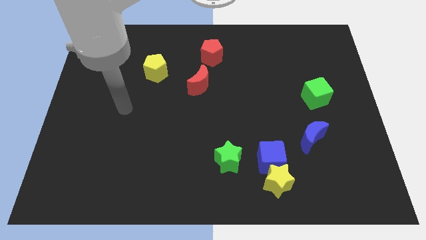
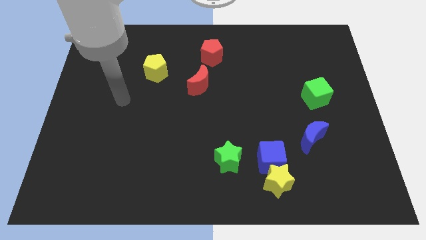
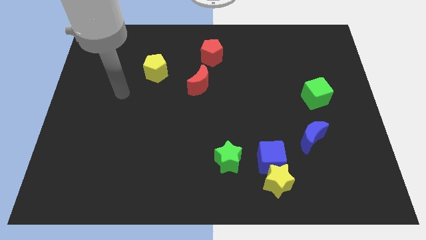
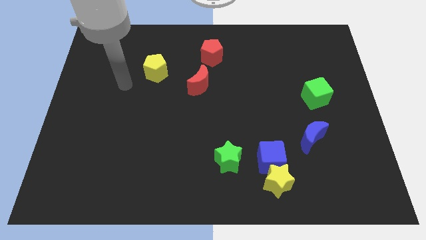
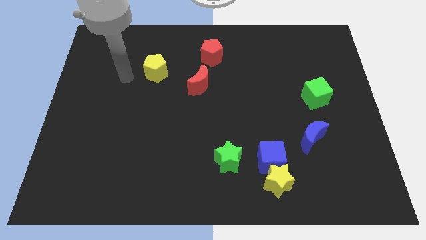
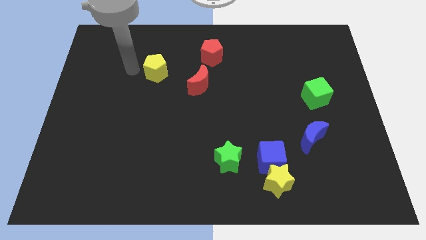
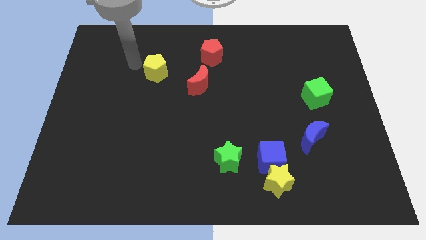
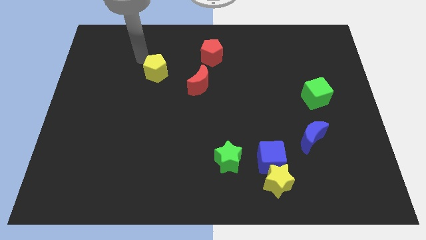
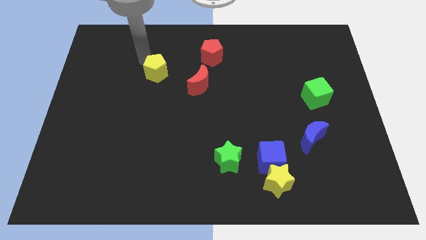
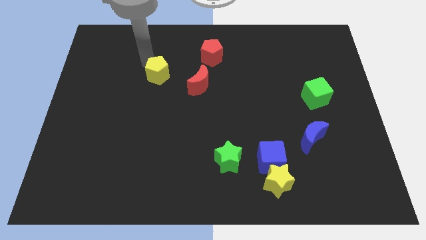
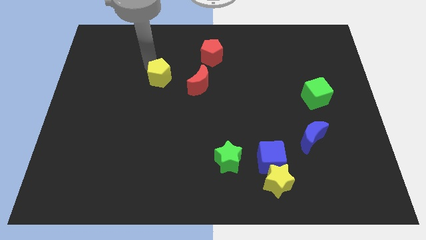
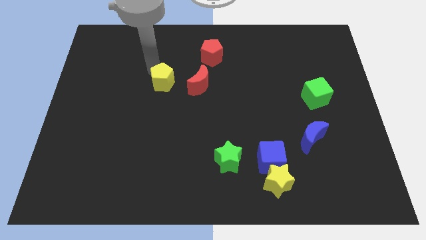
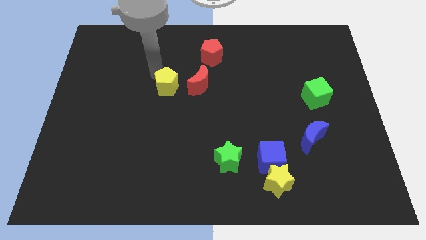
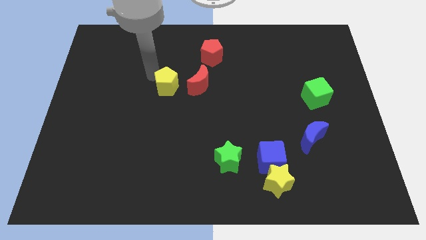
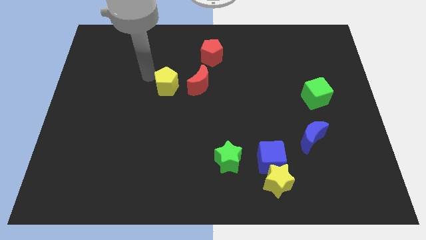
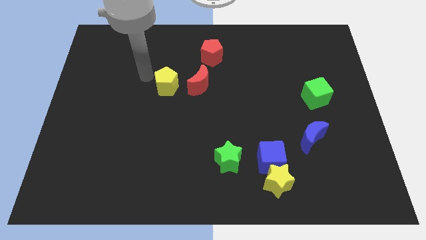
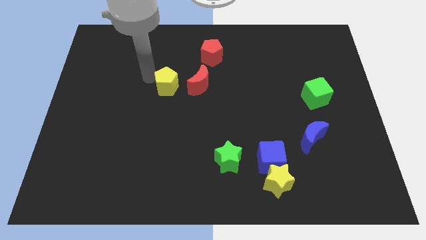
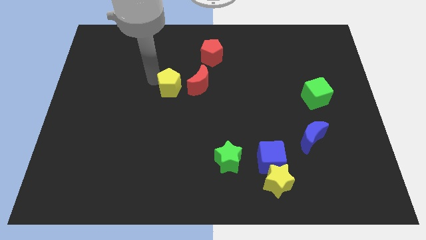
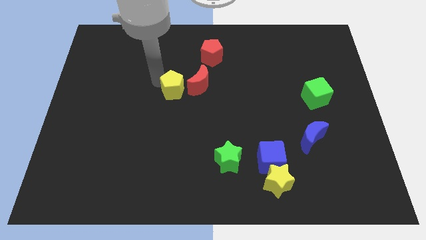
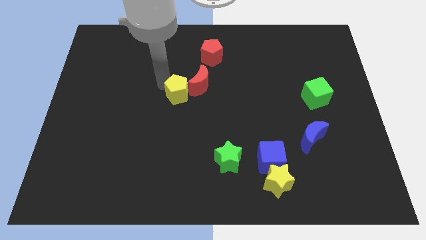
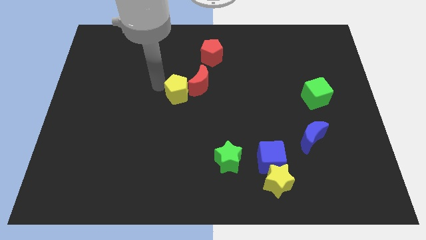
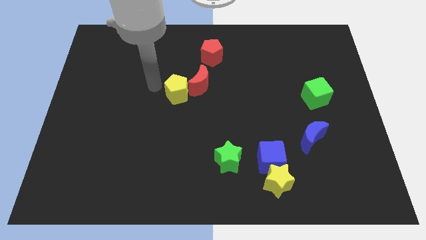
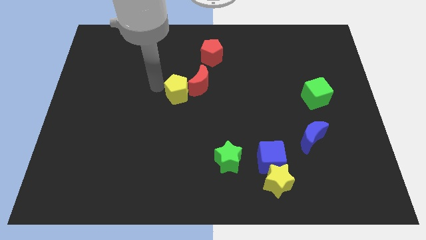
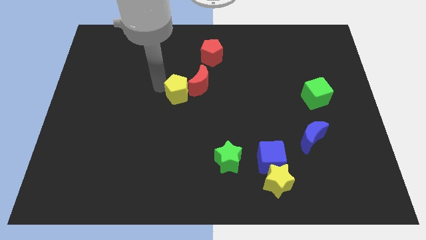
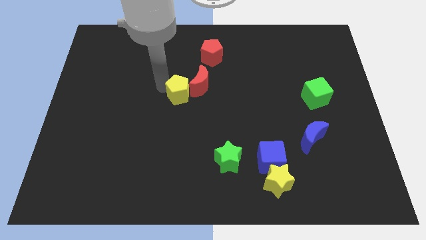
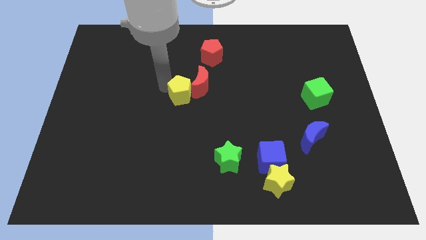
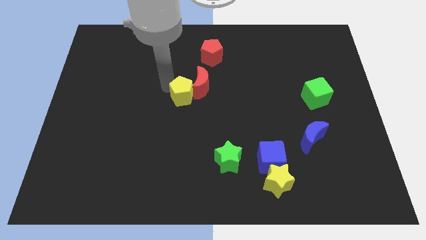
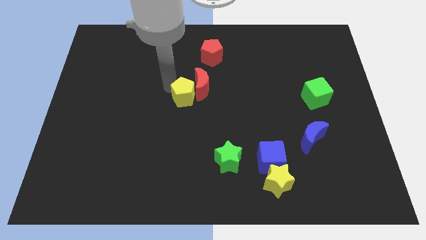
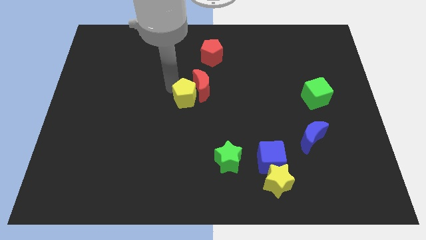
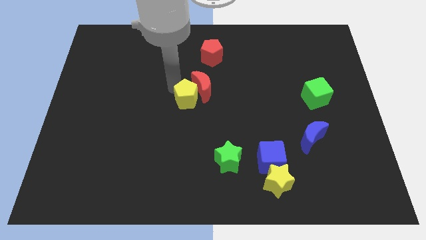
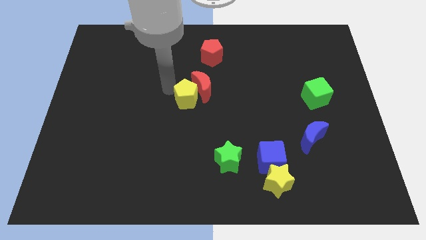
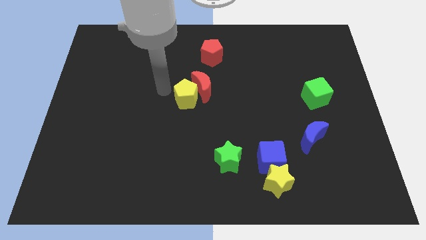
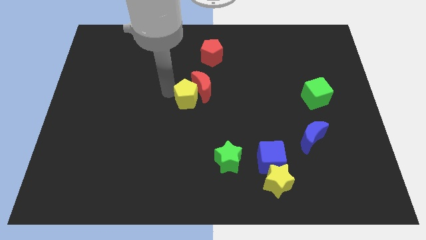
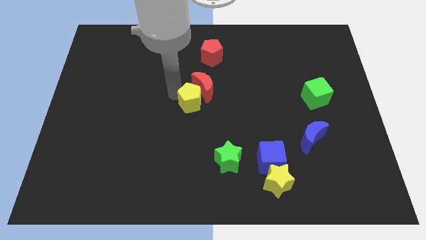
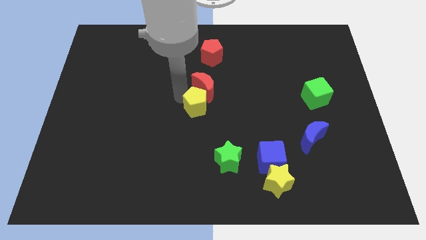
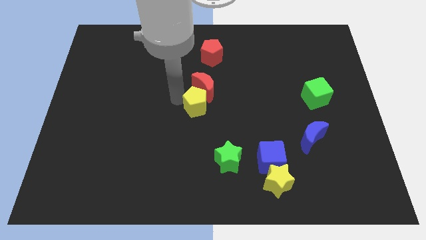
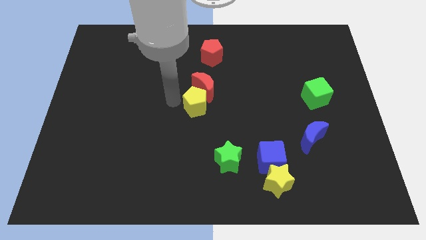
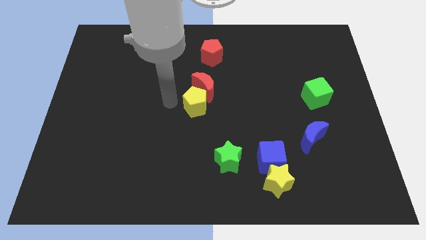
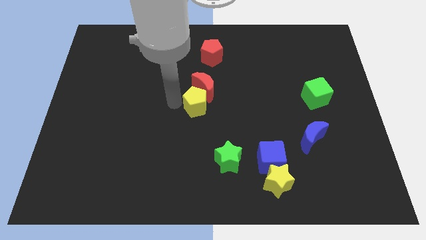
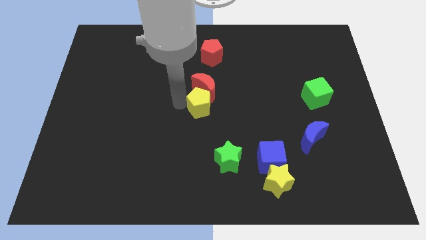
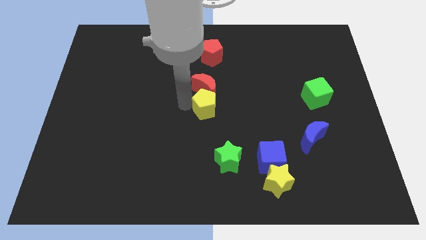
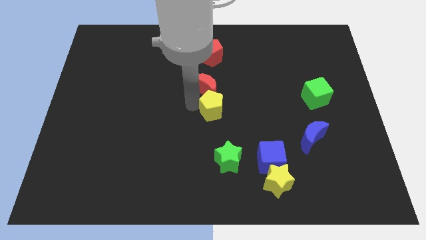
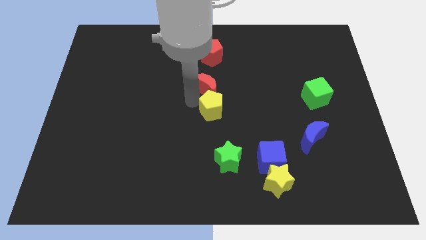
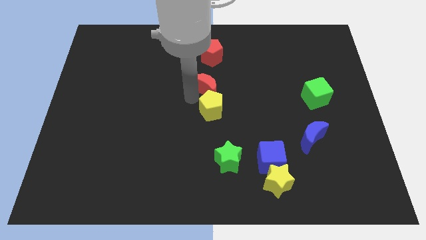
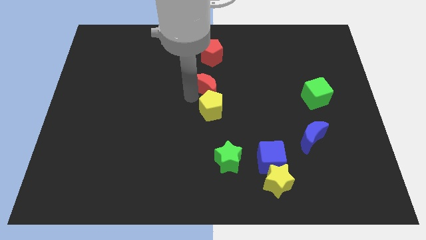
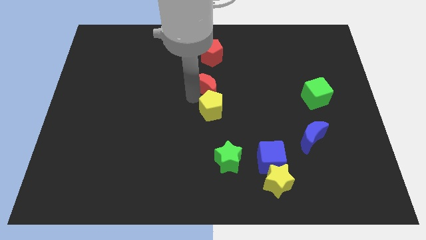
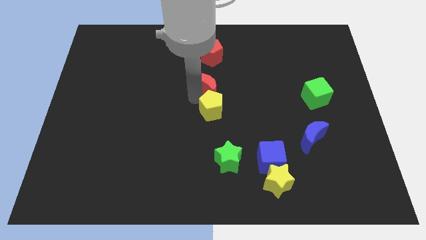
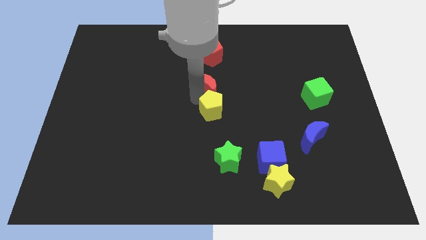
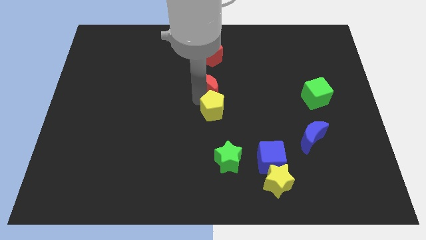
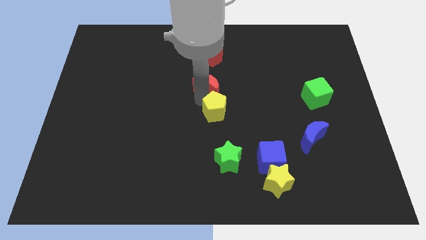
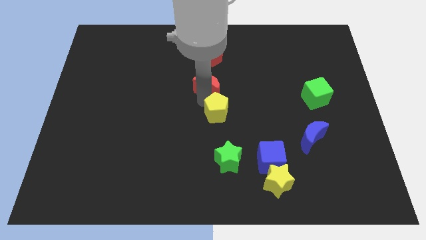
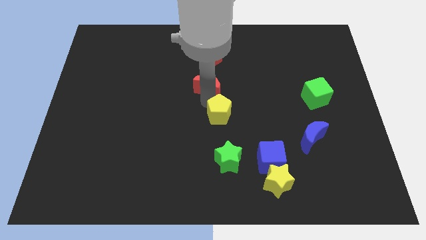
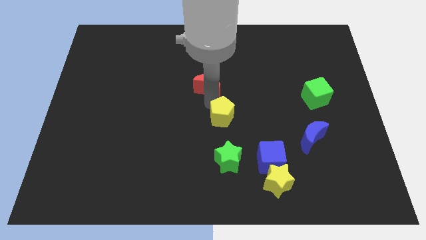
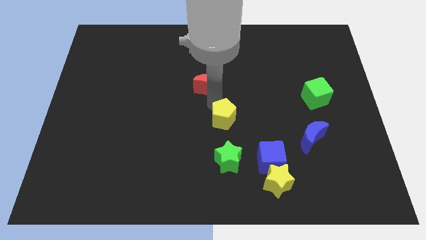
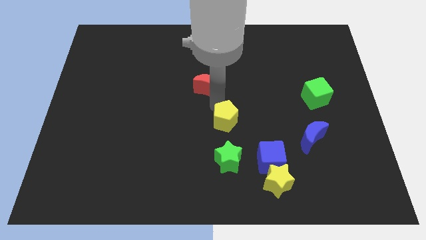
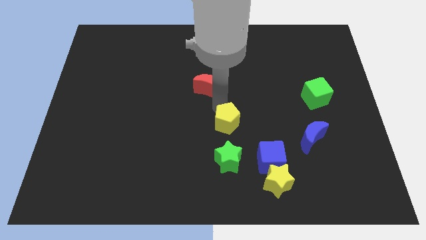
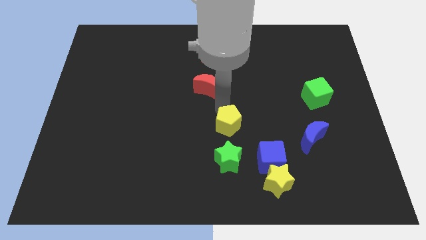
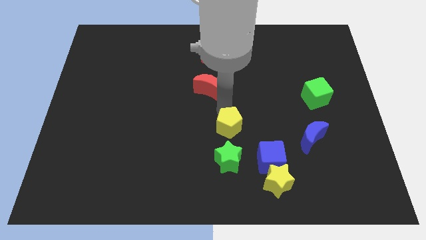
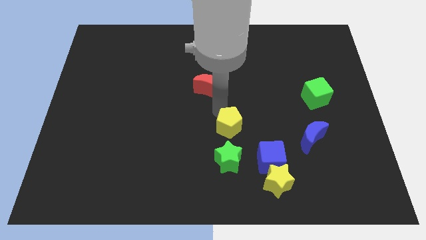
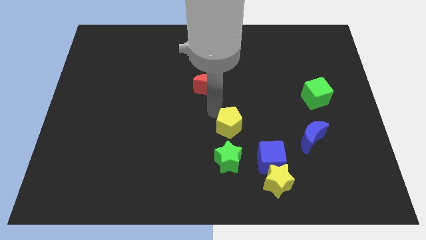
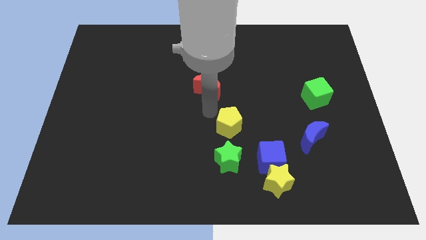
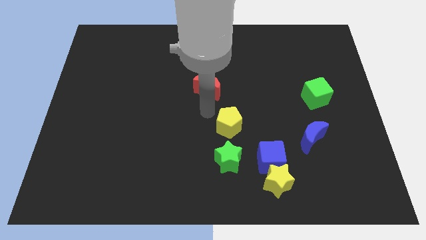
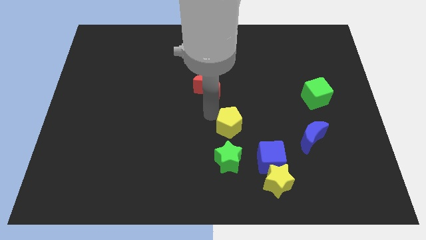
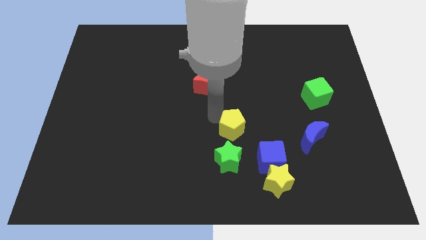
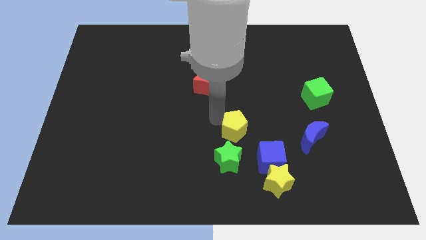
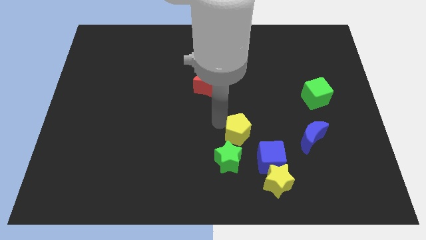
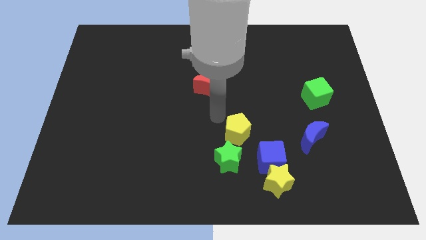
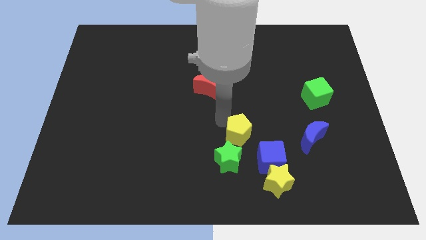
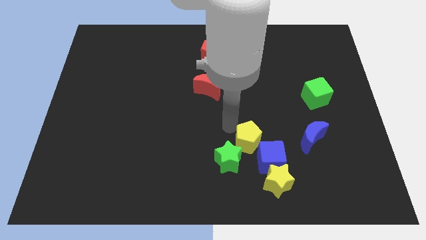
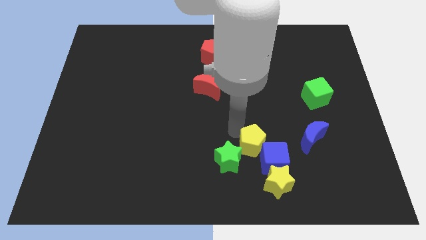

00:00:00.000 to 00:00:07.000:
put the yellow pentagon next to the blue cube

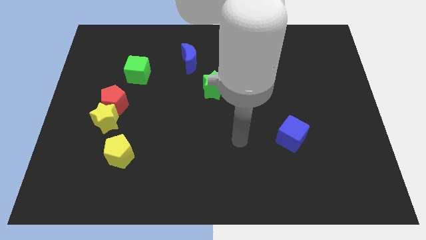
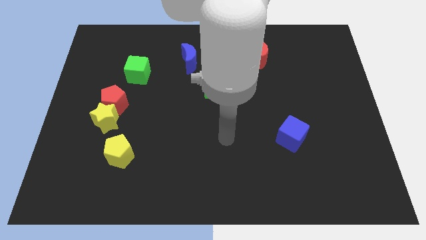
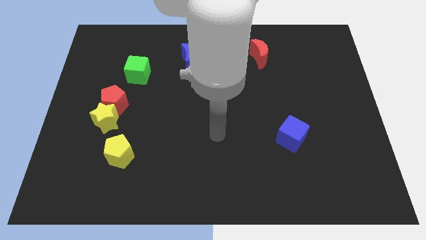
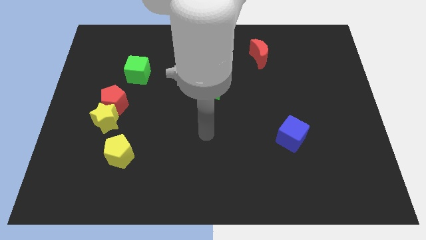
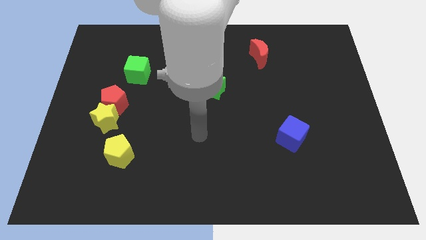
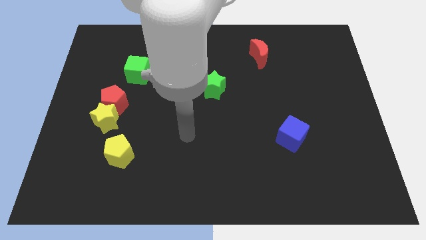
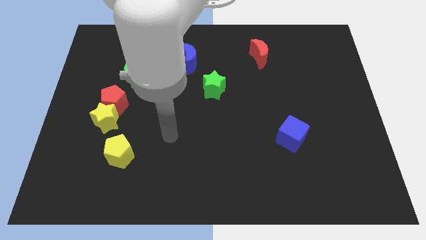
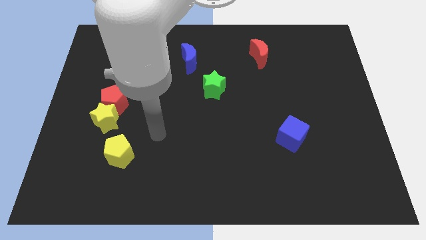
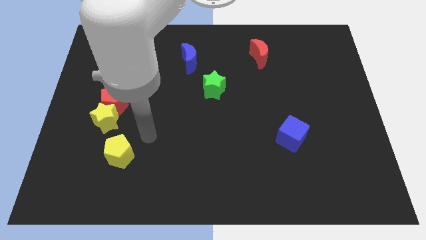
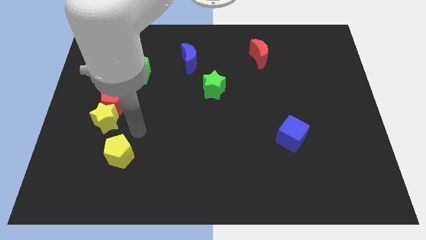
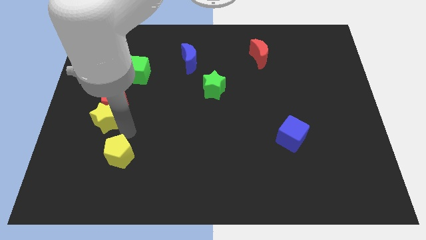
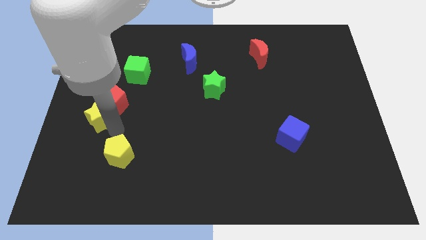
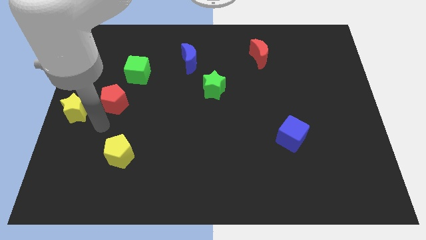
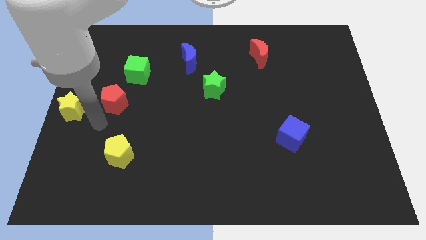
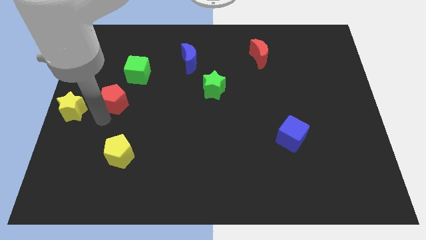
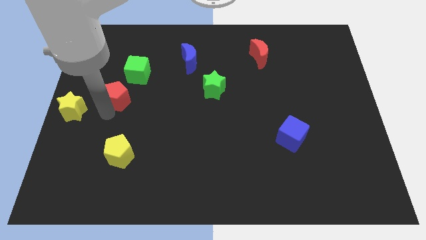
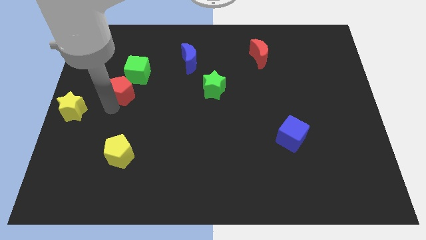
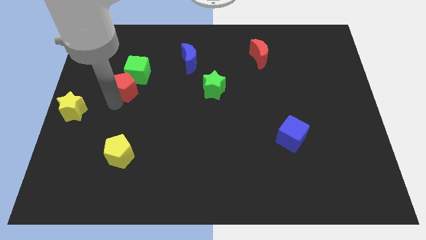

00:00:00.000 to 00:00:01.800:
push the red pentagon close to the green cube
